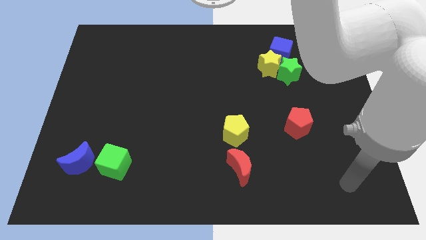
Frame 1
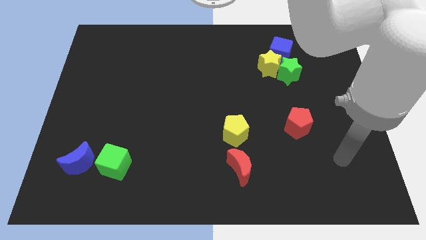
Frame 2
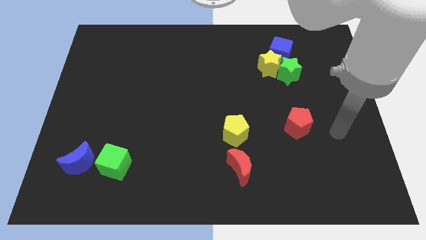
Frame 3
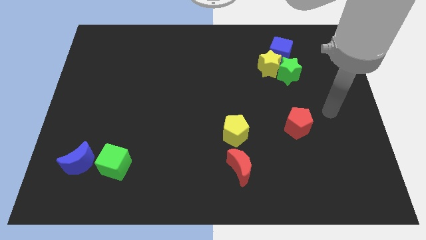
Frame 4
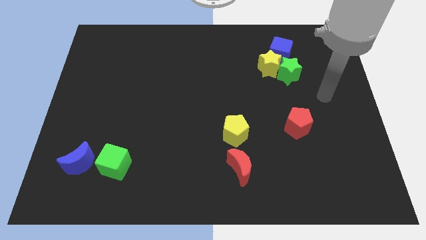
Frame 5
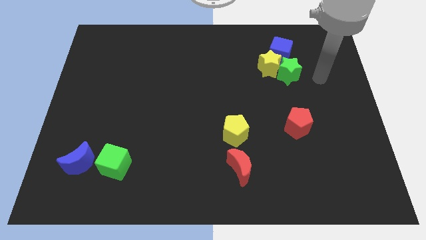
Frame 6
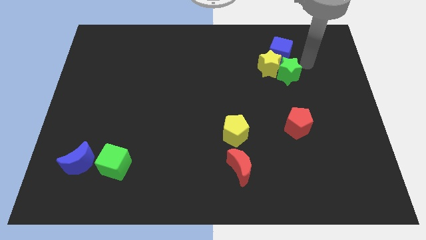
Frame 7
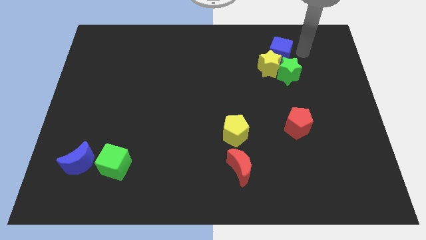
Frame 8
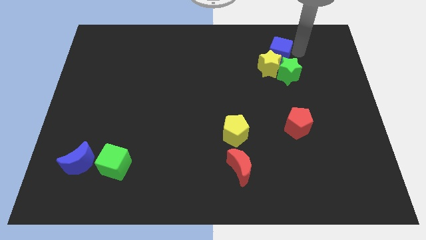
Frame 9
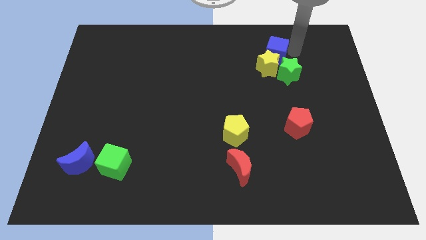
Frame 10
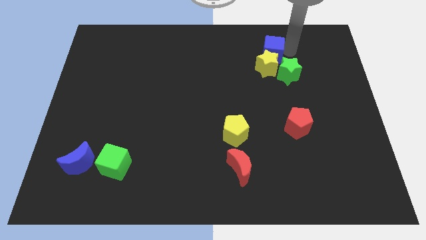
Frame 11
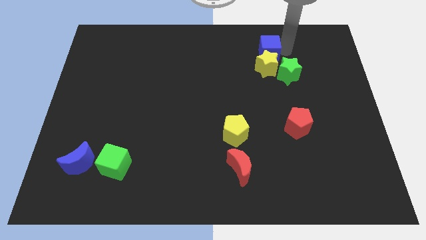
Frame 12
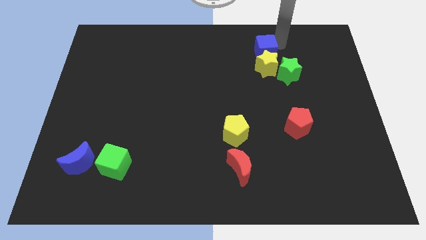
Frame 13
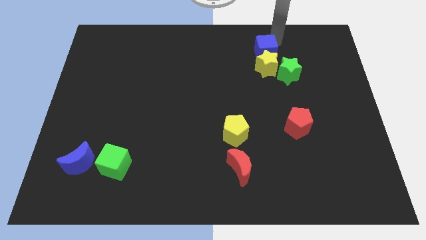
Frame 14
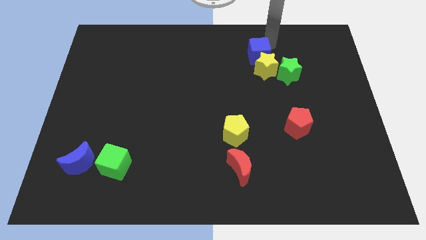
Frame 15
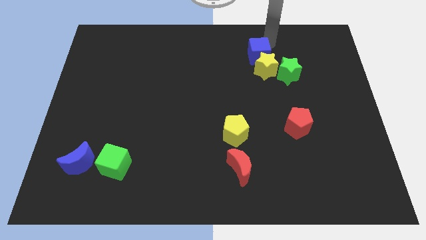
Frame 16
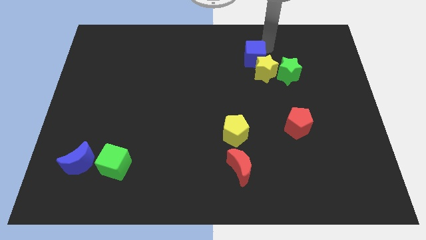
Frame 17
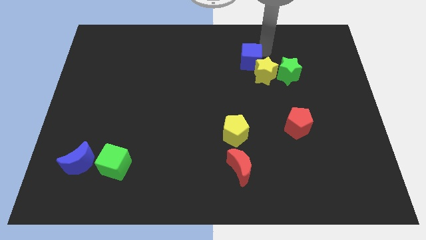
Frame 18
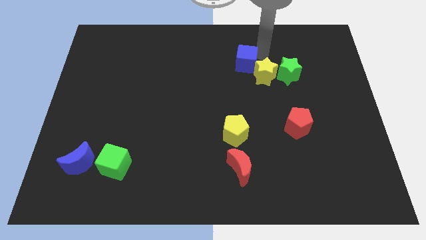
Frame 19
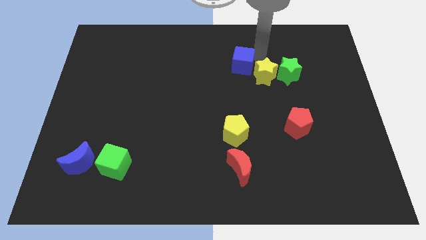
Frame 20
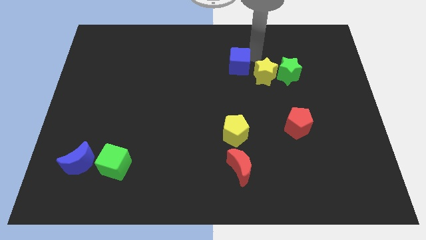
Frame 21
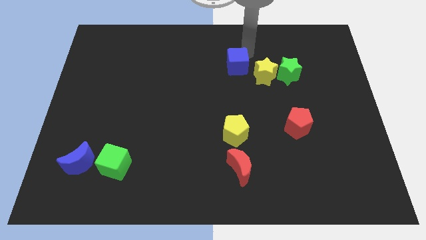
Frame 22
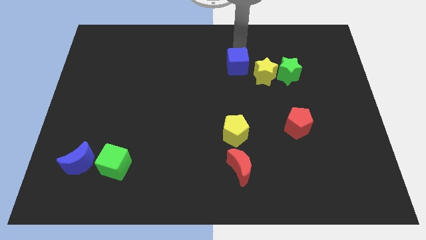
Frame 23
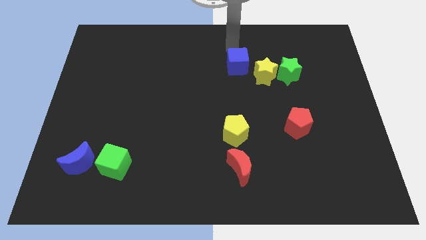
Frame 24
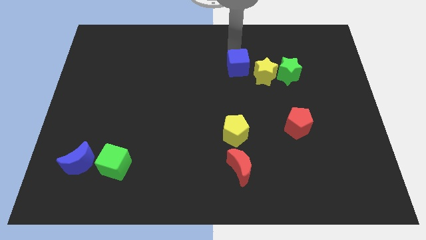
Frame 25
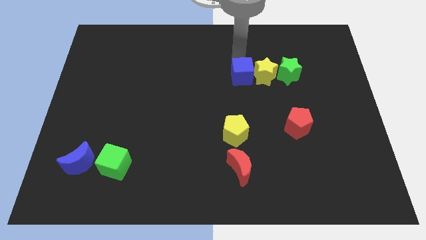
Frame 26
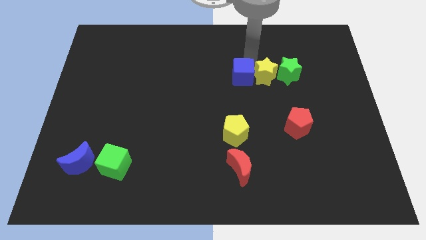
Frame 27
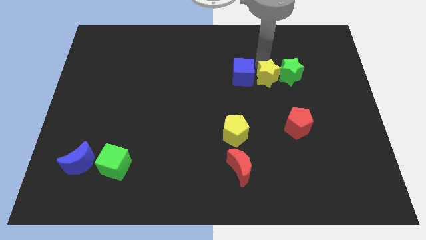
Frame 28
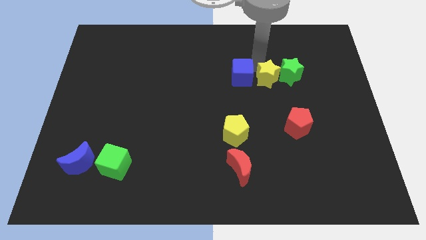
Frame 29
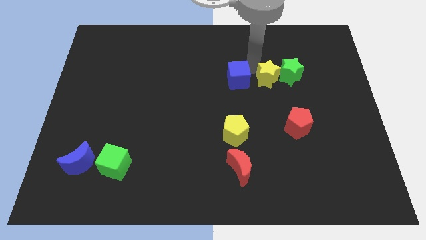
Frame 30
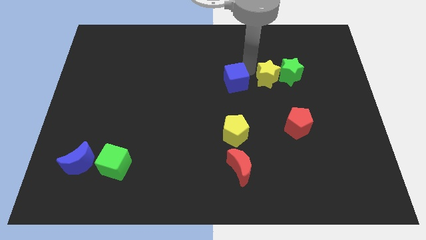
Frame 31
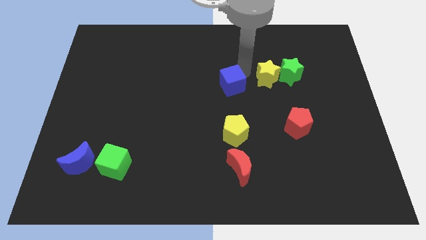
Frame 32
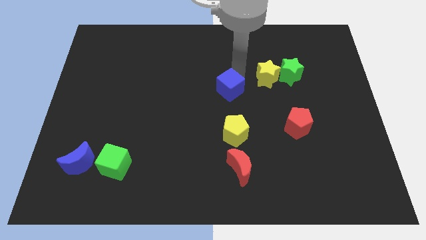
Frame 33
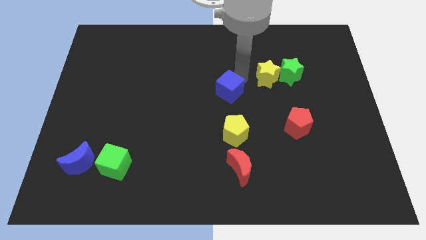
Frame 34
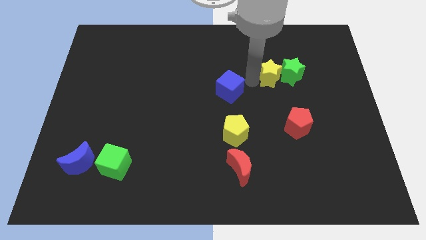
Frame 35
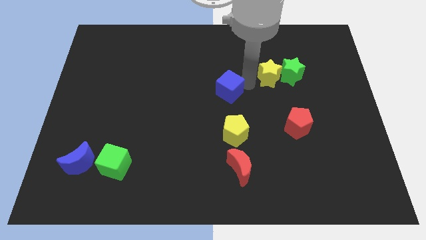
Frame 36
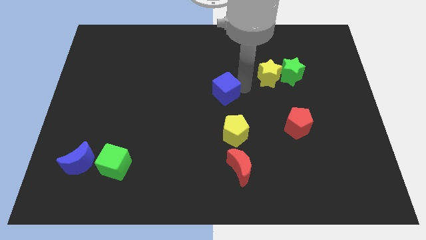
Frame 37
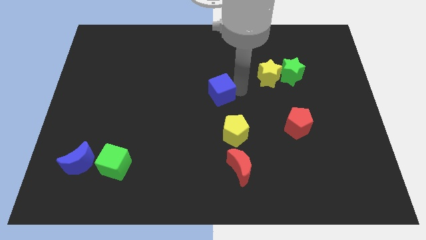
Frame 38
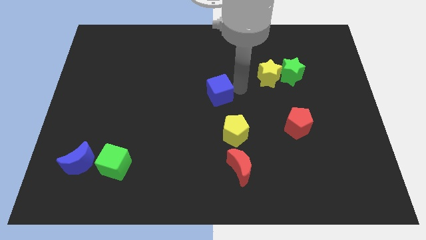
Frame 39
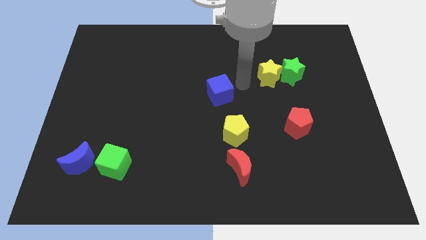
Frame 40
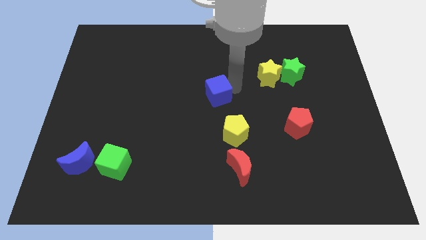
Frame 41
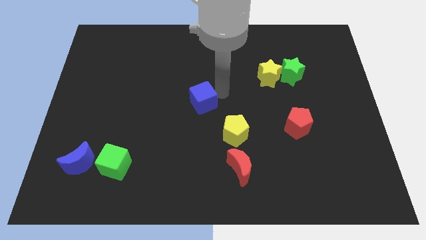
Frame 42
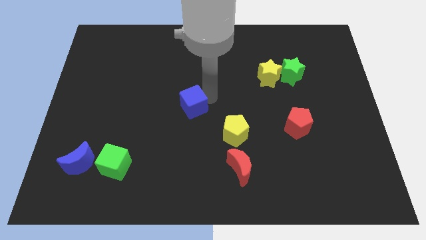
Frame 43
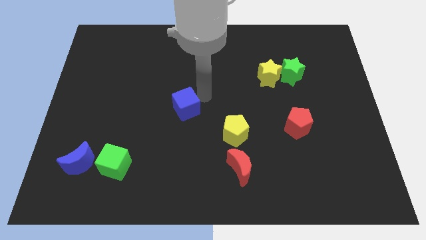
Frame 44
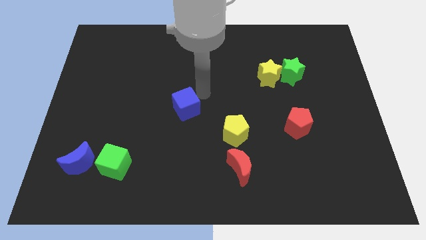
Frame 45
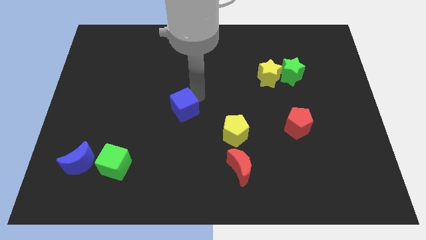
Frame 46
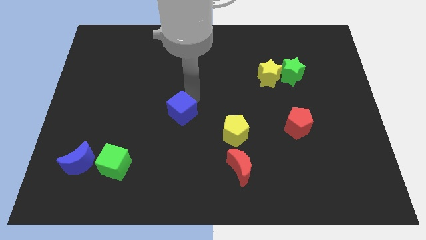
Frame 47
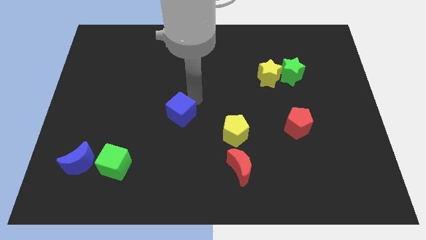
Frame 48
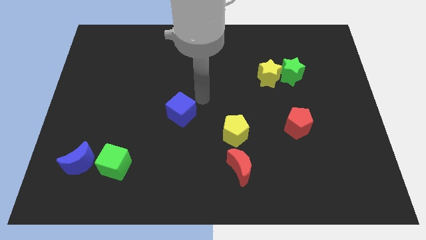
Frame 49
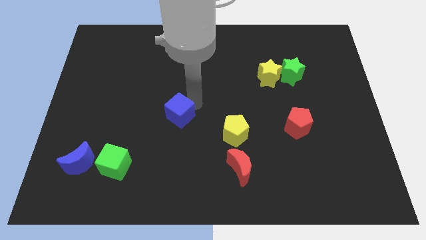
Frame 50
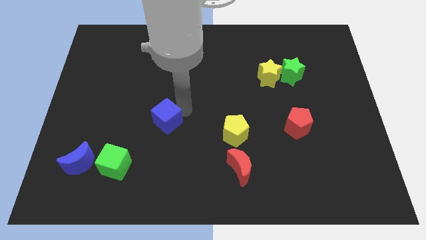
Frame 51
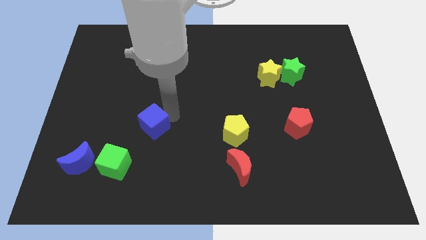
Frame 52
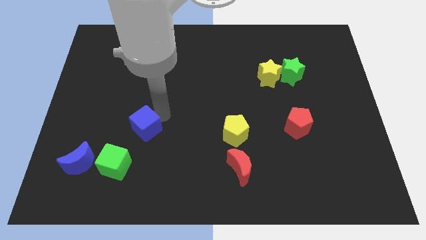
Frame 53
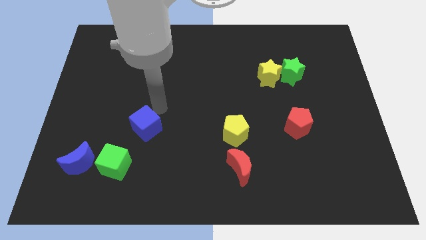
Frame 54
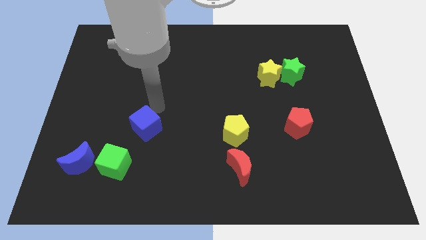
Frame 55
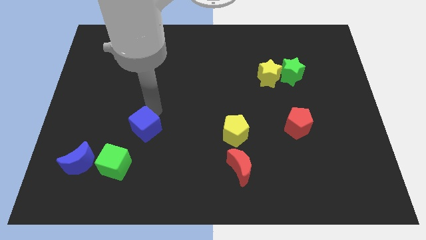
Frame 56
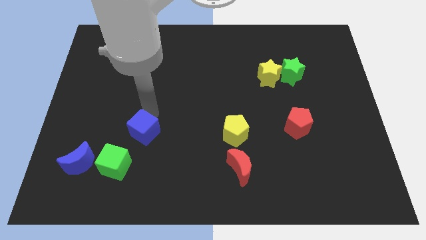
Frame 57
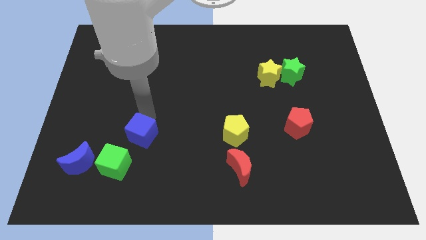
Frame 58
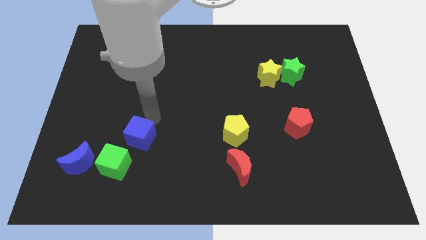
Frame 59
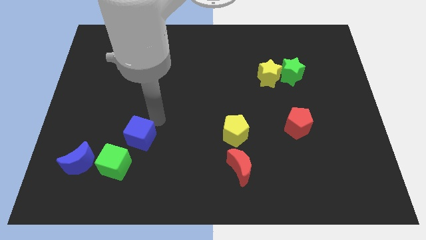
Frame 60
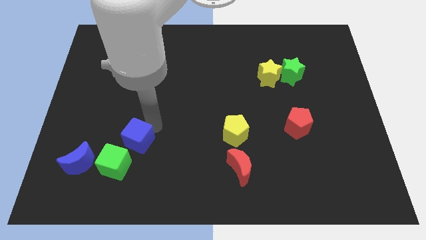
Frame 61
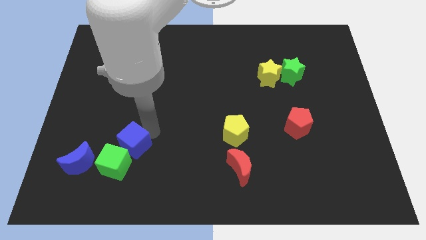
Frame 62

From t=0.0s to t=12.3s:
put the blue cube next to the green cube

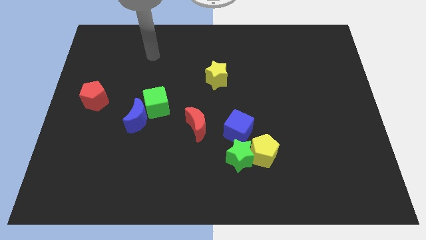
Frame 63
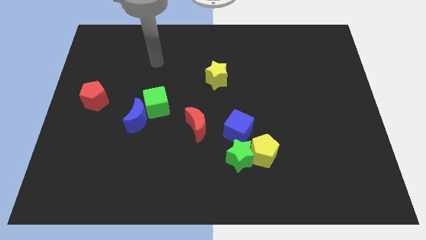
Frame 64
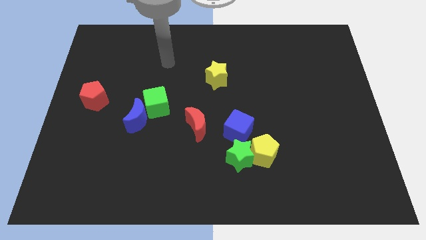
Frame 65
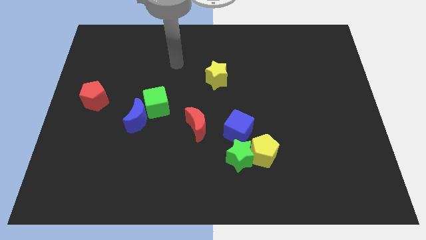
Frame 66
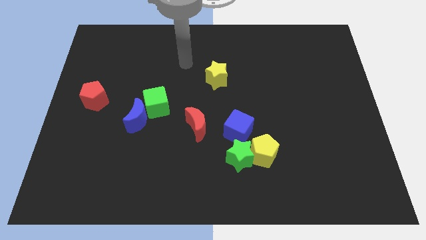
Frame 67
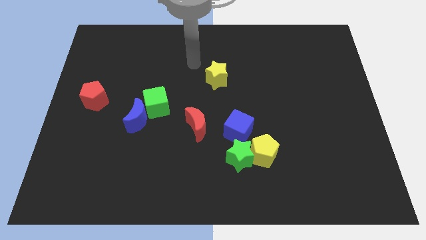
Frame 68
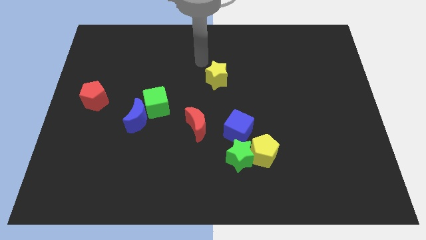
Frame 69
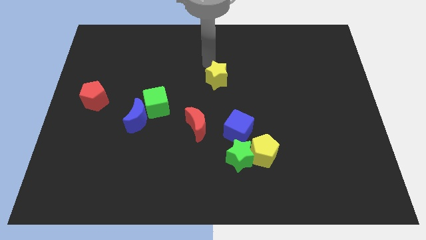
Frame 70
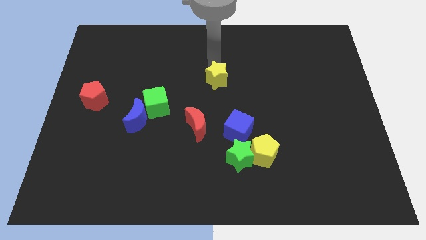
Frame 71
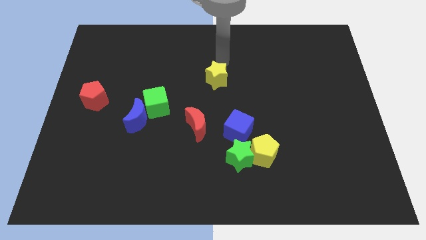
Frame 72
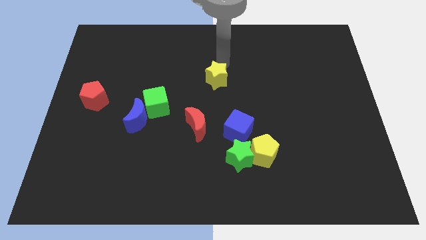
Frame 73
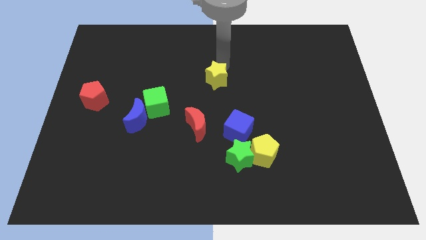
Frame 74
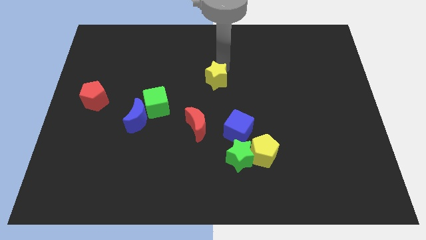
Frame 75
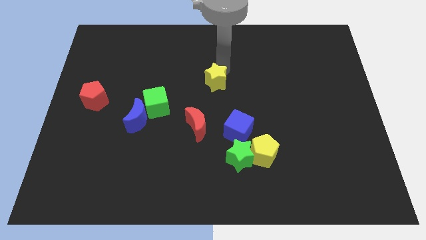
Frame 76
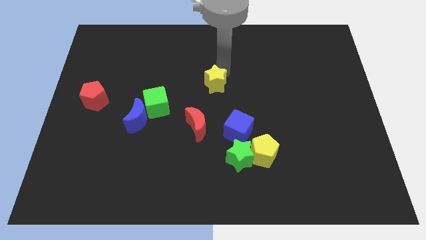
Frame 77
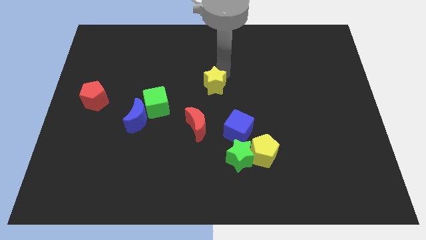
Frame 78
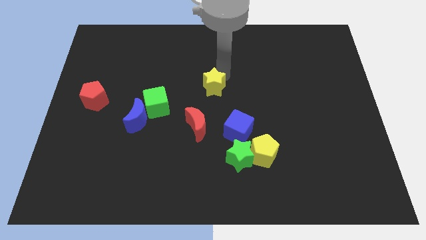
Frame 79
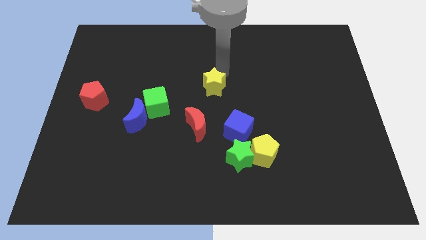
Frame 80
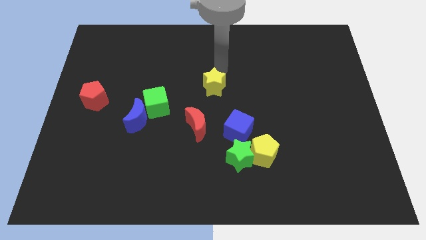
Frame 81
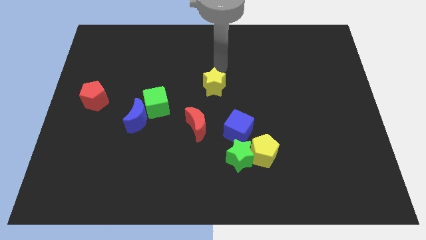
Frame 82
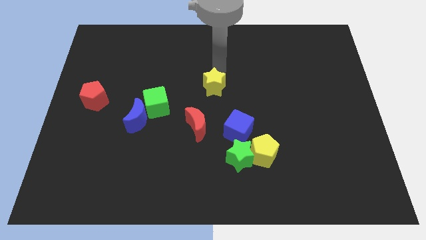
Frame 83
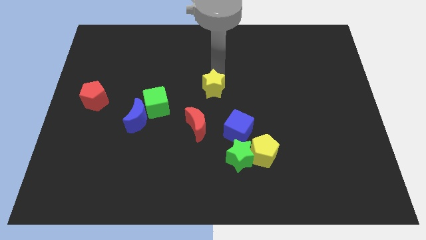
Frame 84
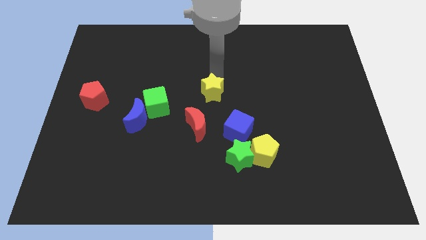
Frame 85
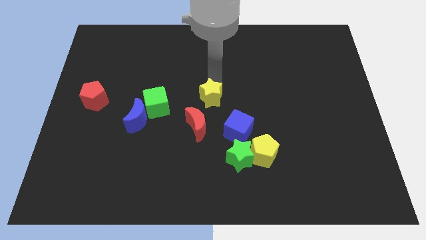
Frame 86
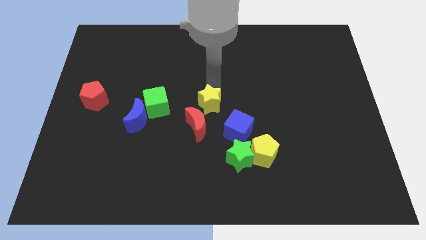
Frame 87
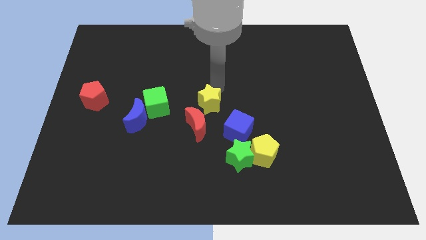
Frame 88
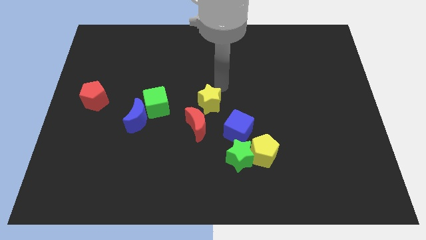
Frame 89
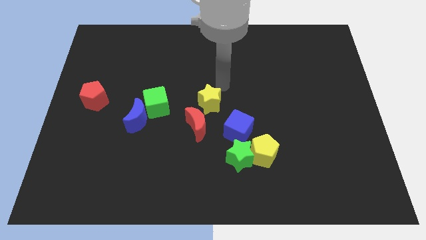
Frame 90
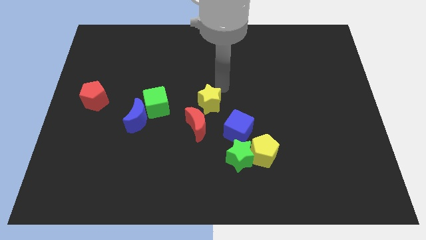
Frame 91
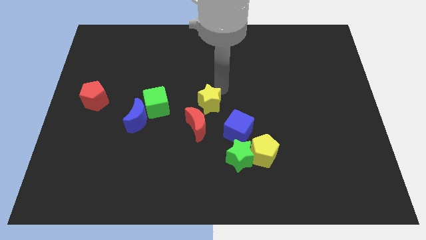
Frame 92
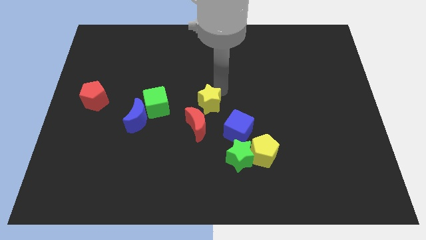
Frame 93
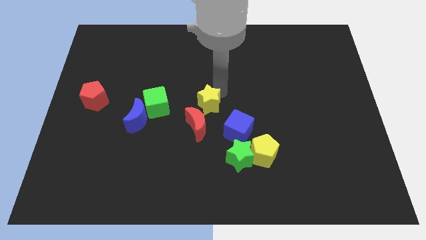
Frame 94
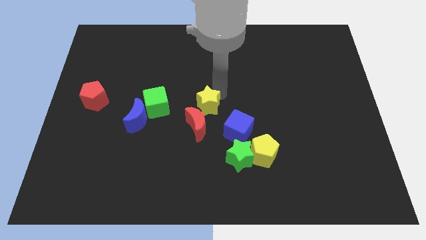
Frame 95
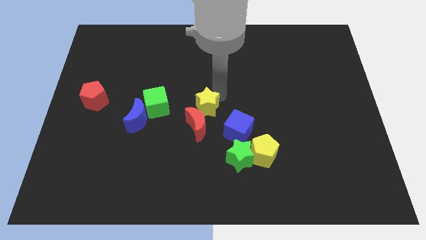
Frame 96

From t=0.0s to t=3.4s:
move the yellow star next to the red moon
